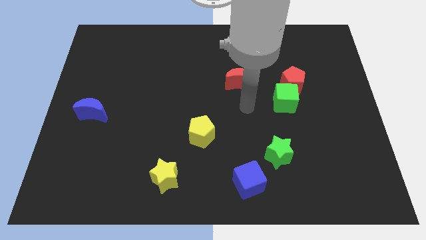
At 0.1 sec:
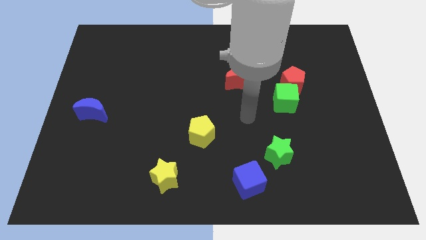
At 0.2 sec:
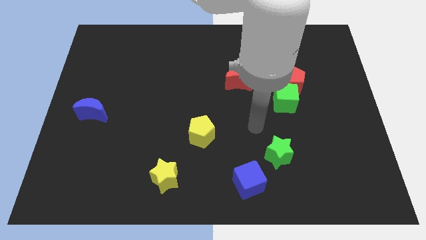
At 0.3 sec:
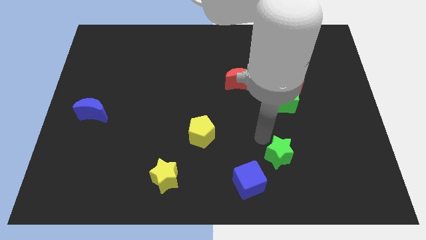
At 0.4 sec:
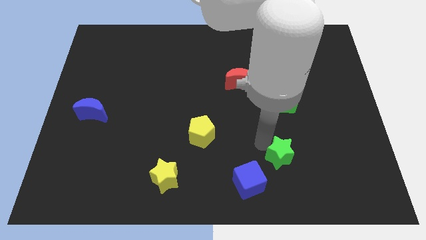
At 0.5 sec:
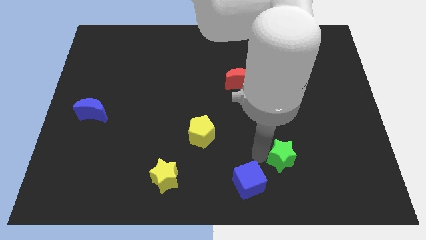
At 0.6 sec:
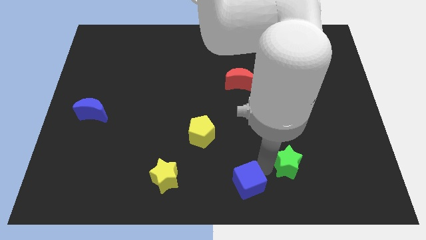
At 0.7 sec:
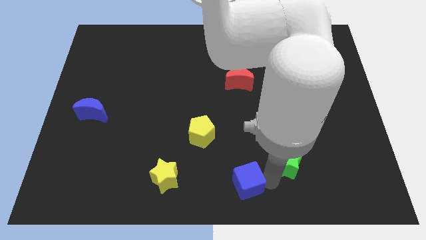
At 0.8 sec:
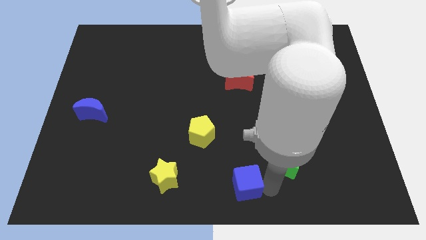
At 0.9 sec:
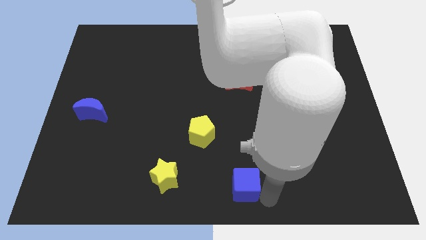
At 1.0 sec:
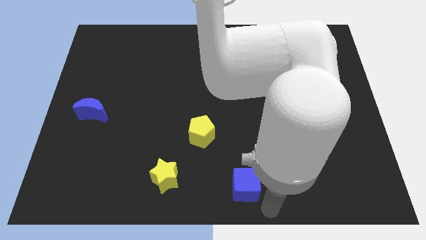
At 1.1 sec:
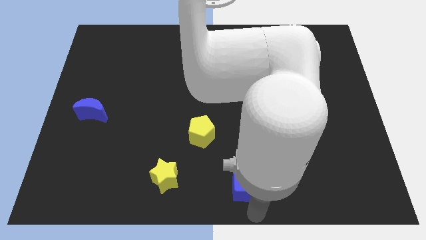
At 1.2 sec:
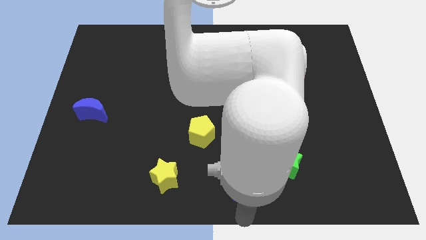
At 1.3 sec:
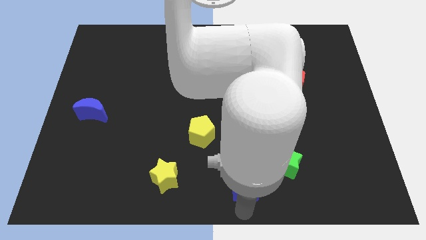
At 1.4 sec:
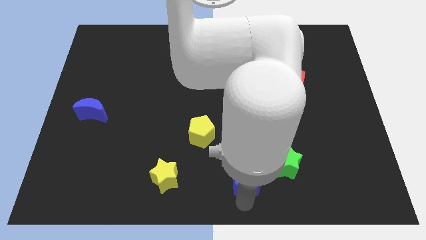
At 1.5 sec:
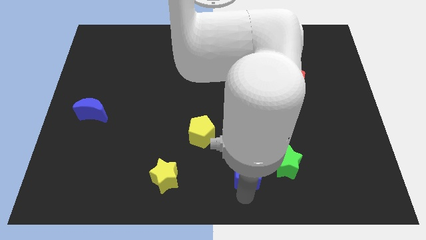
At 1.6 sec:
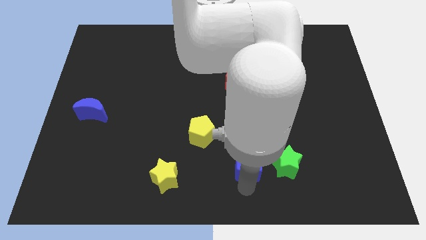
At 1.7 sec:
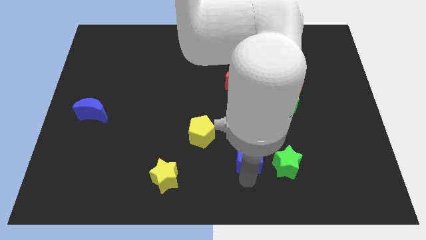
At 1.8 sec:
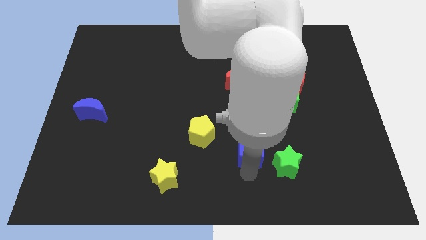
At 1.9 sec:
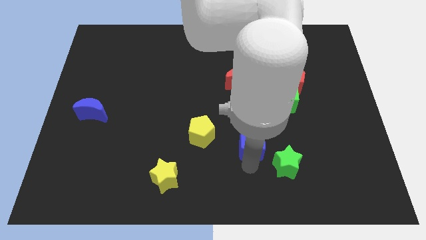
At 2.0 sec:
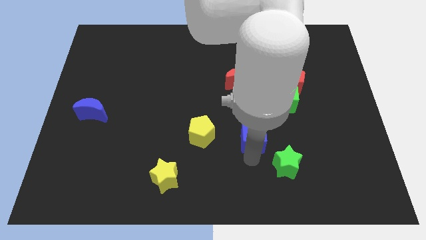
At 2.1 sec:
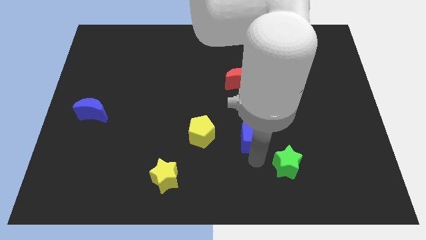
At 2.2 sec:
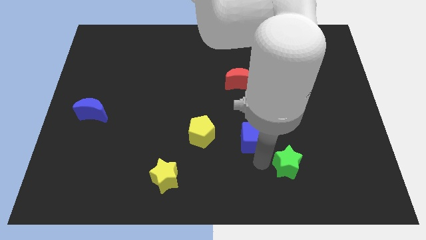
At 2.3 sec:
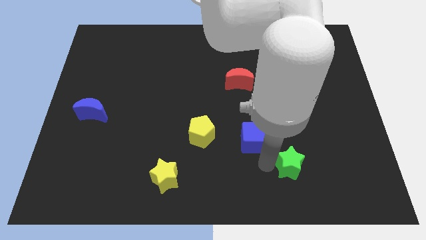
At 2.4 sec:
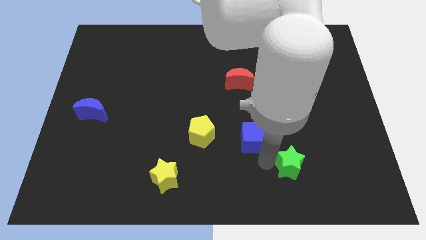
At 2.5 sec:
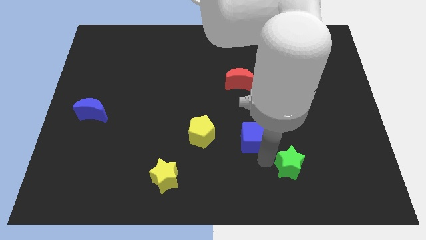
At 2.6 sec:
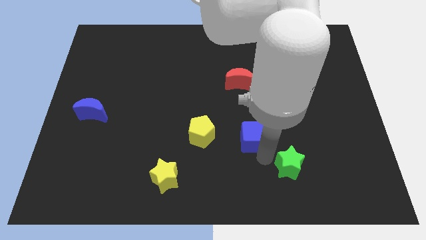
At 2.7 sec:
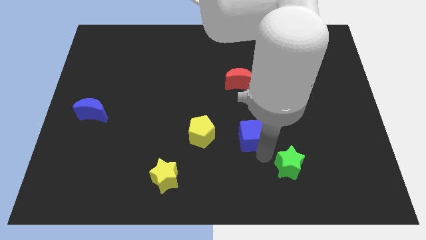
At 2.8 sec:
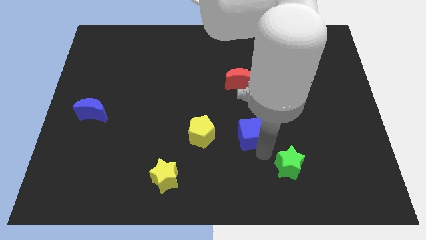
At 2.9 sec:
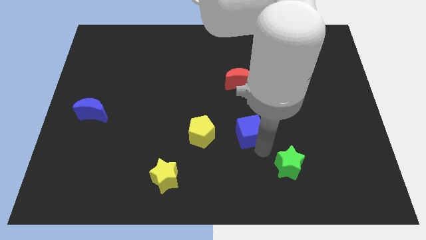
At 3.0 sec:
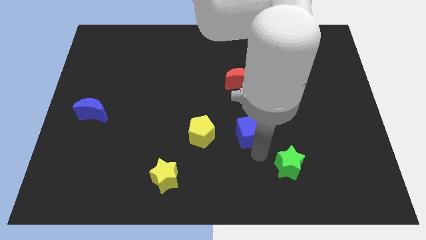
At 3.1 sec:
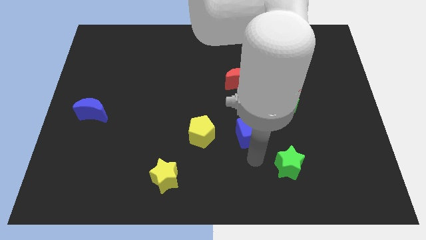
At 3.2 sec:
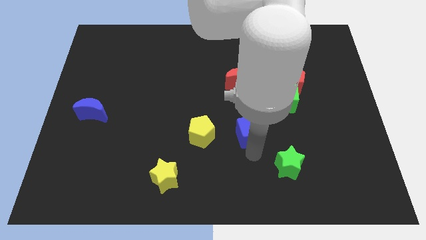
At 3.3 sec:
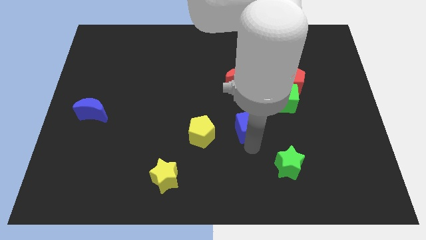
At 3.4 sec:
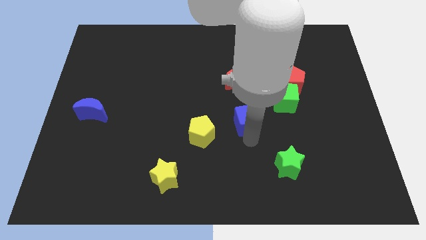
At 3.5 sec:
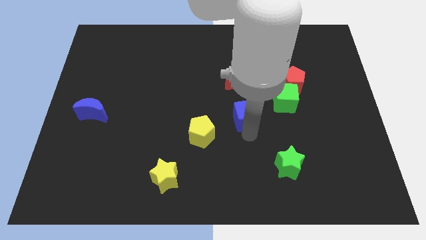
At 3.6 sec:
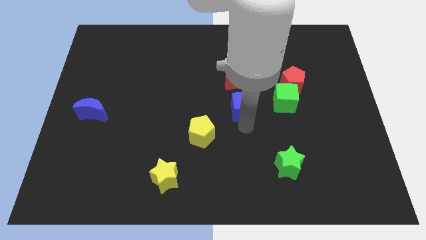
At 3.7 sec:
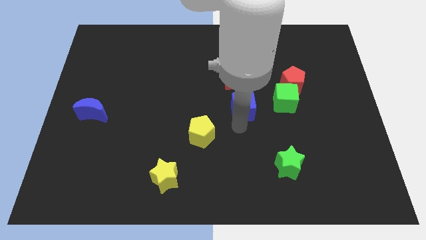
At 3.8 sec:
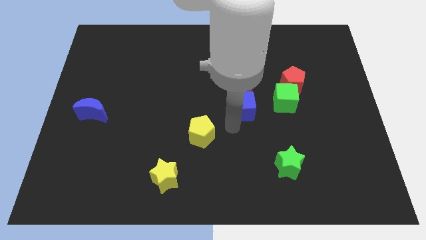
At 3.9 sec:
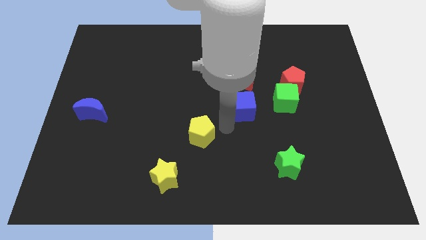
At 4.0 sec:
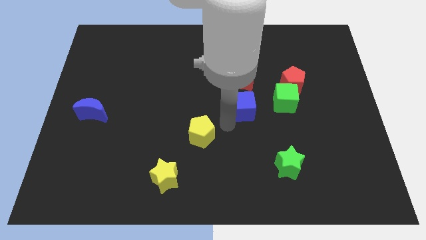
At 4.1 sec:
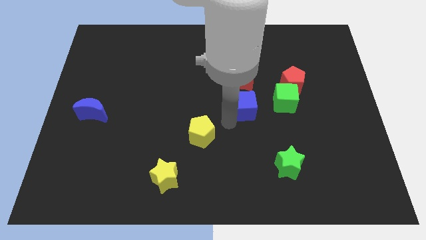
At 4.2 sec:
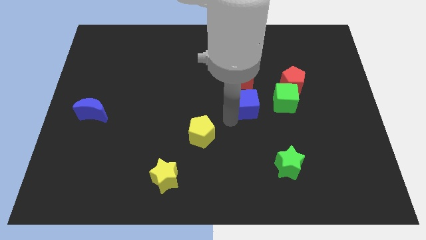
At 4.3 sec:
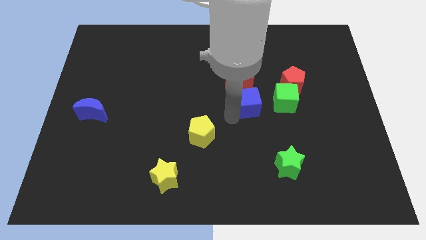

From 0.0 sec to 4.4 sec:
move the blue cube up

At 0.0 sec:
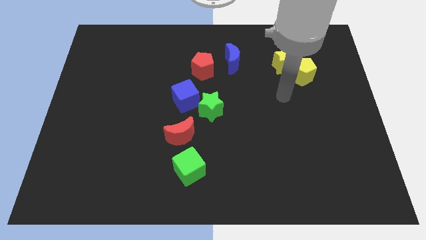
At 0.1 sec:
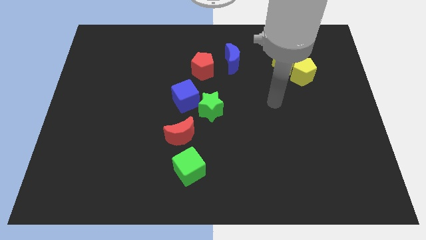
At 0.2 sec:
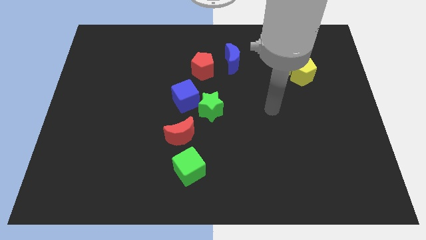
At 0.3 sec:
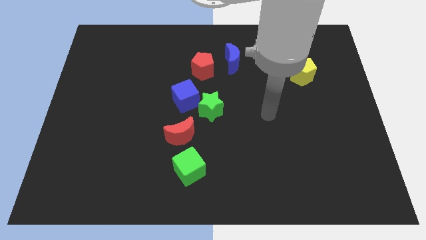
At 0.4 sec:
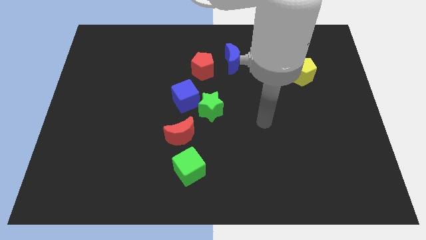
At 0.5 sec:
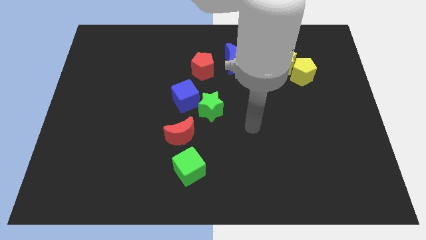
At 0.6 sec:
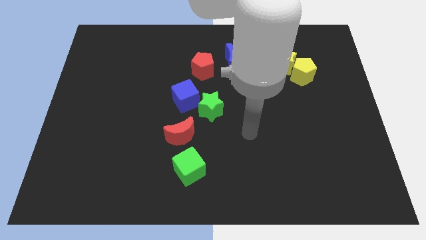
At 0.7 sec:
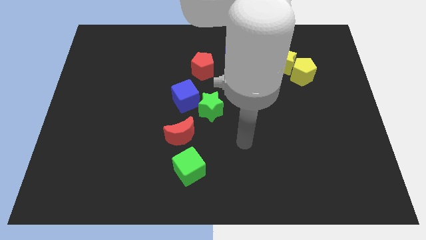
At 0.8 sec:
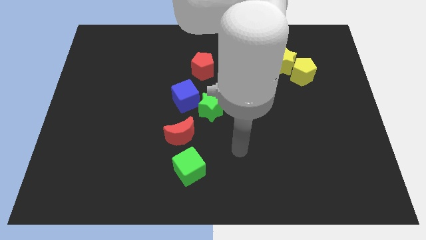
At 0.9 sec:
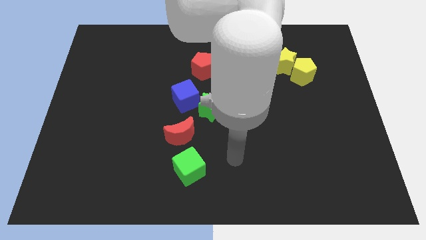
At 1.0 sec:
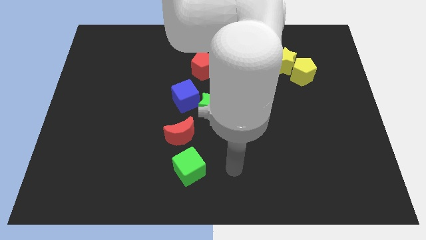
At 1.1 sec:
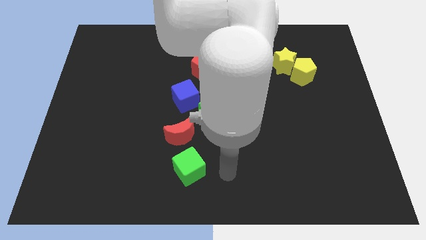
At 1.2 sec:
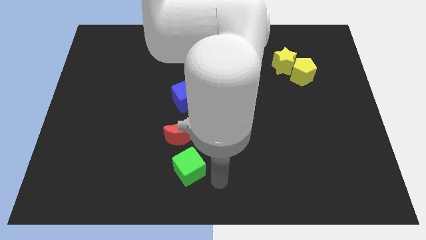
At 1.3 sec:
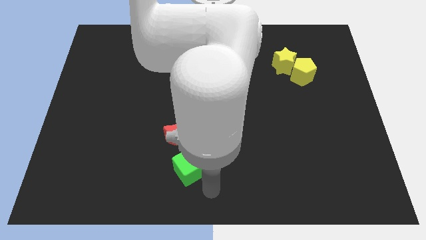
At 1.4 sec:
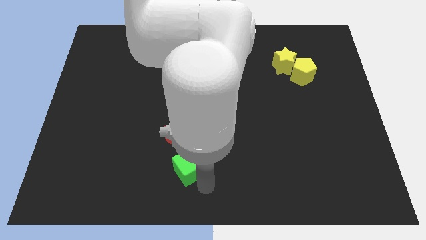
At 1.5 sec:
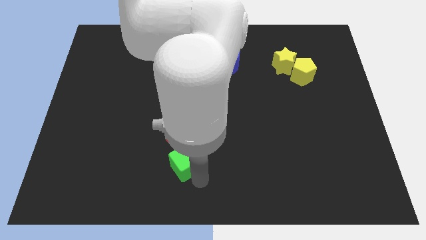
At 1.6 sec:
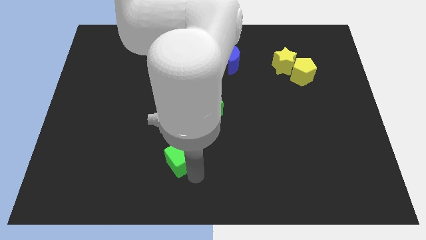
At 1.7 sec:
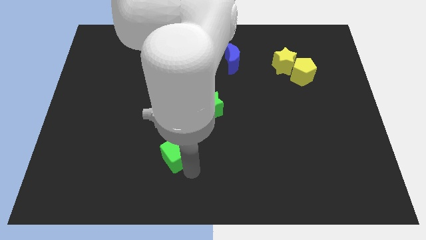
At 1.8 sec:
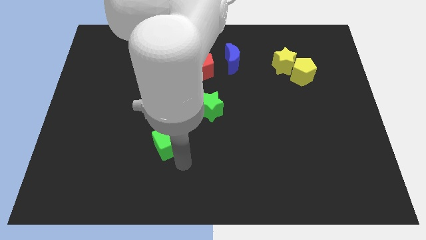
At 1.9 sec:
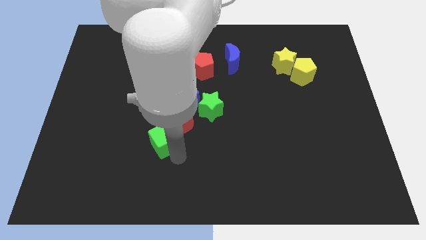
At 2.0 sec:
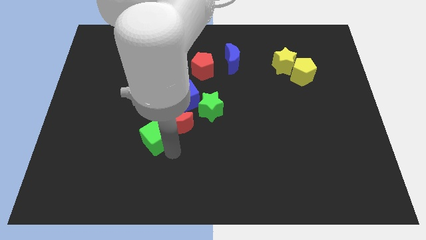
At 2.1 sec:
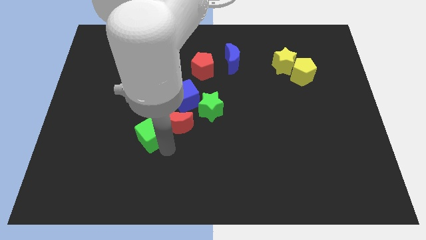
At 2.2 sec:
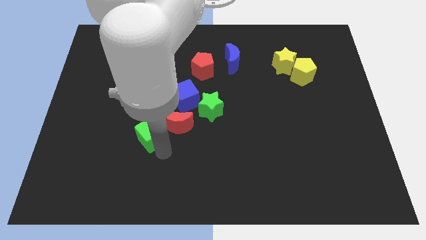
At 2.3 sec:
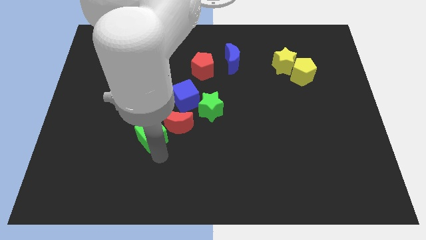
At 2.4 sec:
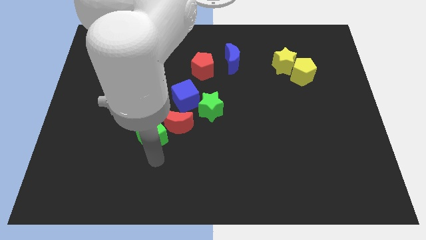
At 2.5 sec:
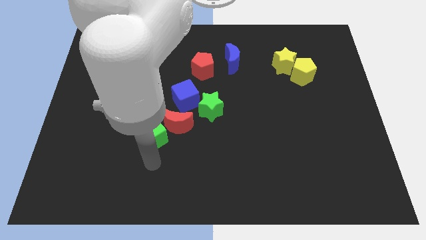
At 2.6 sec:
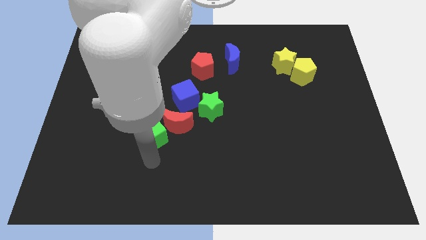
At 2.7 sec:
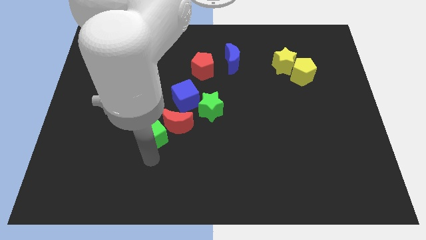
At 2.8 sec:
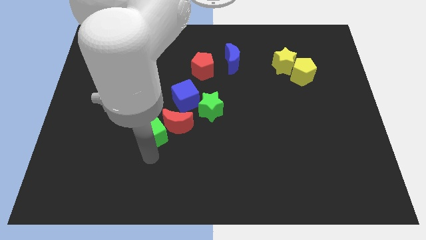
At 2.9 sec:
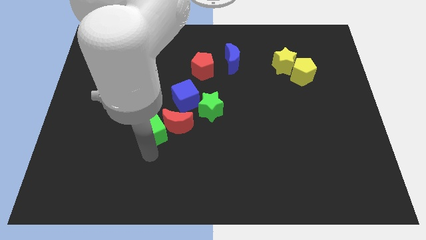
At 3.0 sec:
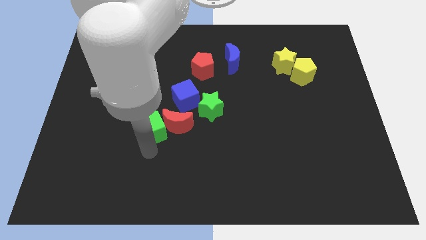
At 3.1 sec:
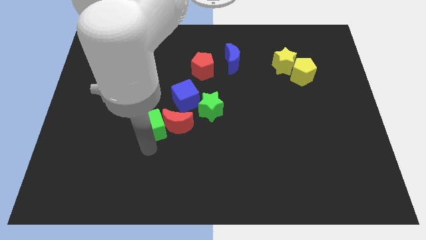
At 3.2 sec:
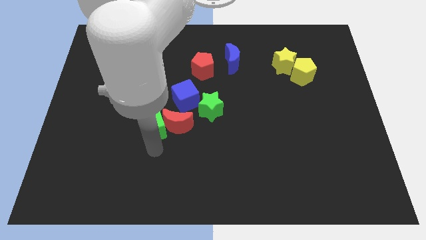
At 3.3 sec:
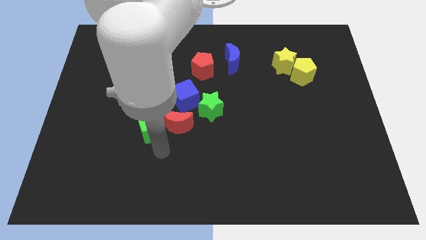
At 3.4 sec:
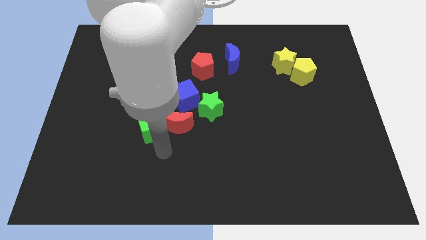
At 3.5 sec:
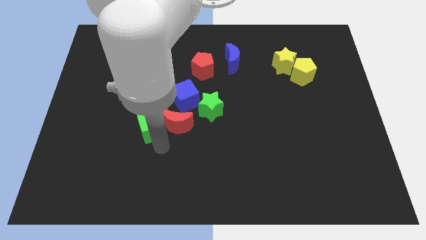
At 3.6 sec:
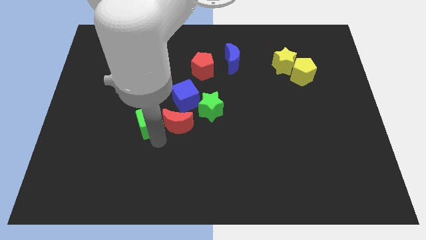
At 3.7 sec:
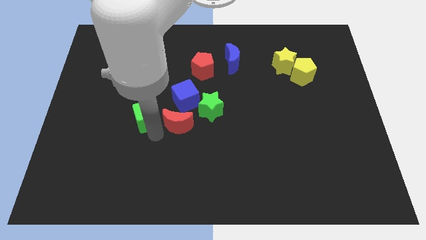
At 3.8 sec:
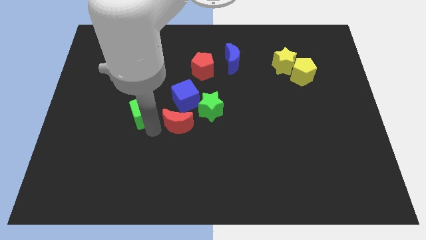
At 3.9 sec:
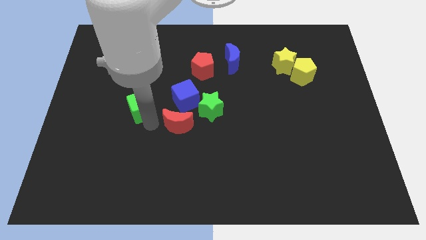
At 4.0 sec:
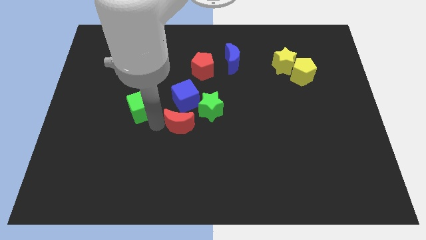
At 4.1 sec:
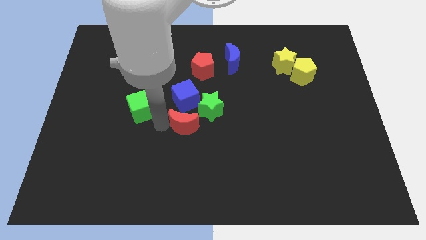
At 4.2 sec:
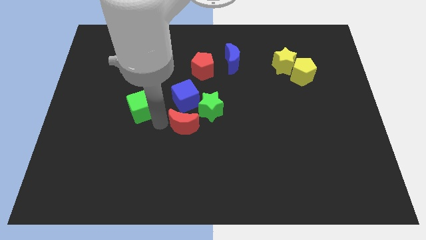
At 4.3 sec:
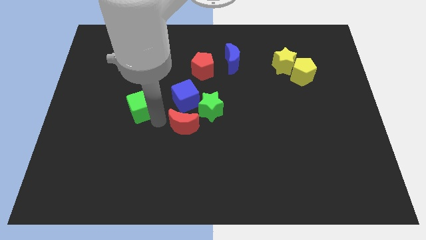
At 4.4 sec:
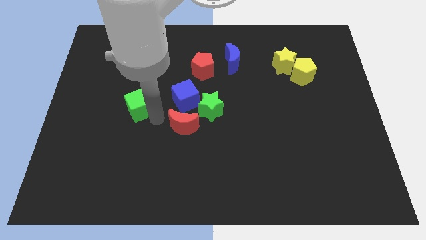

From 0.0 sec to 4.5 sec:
move the green cube diagonally upwards and to the left
